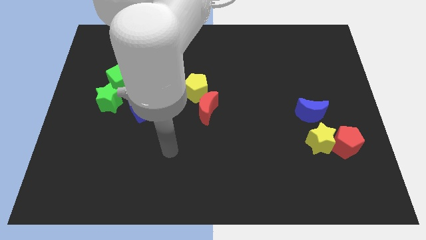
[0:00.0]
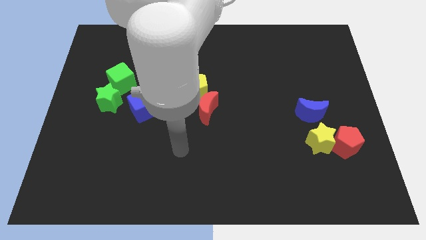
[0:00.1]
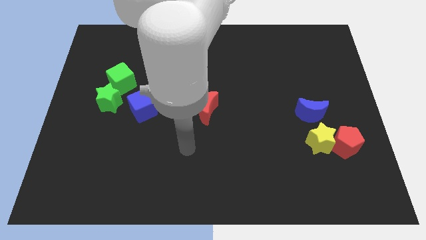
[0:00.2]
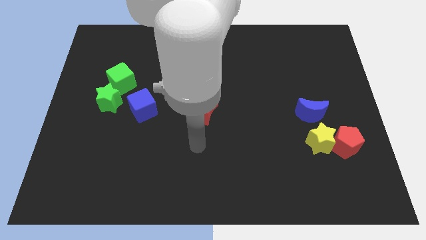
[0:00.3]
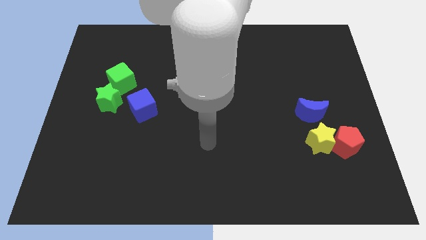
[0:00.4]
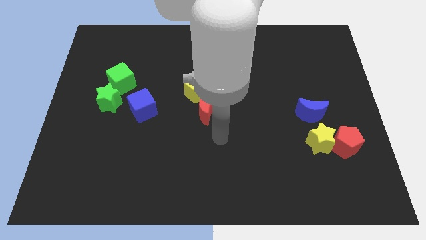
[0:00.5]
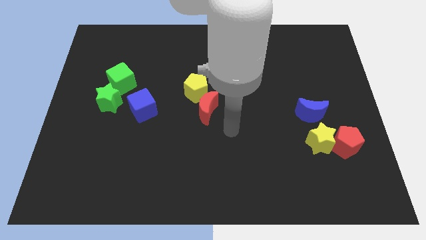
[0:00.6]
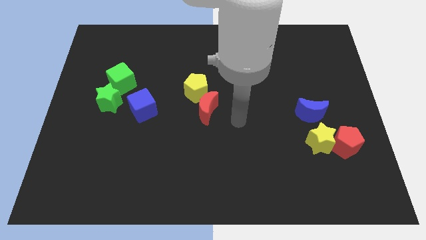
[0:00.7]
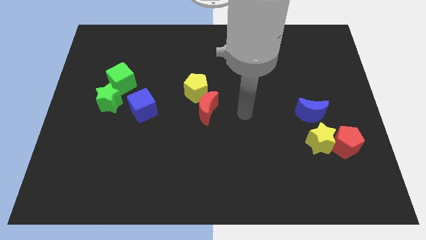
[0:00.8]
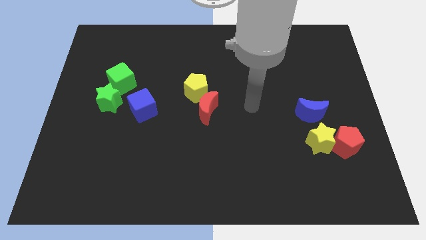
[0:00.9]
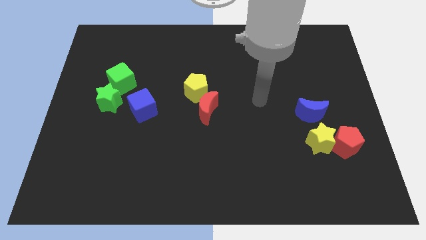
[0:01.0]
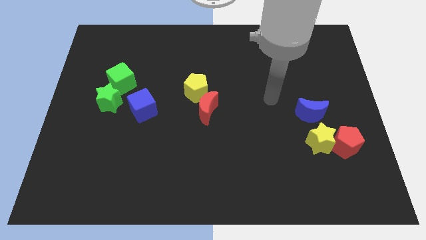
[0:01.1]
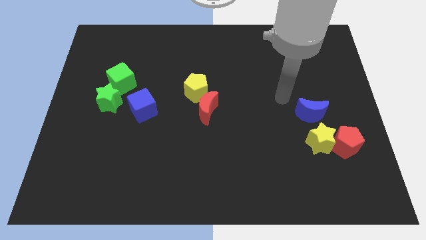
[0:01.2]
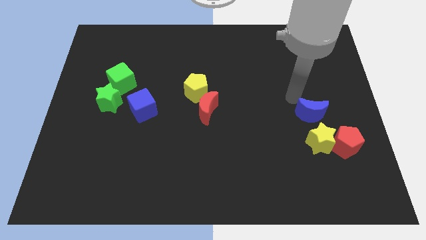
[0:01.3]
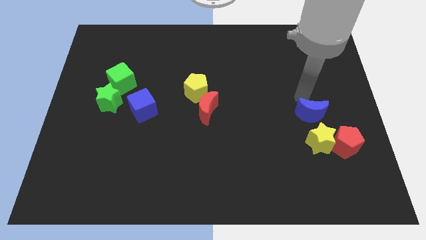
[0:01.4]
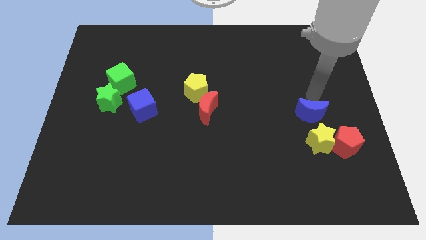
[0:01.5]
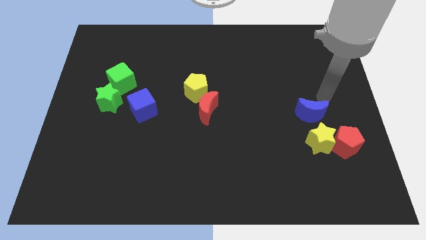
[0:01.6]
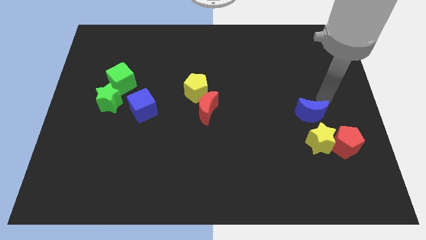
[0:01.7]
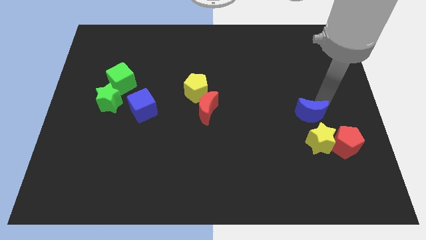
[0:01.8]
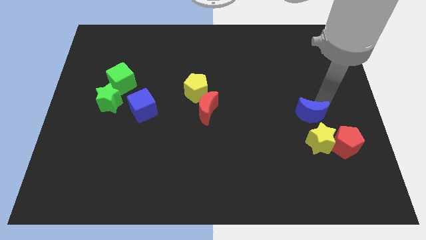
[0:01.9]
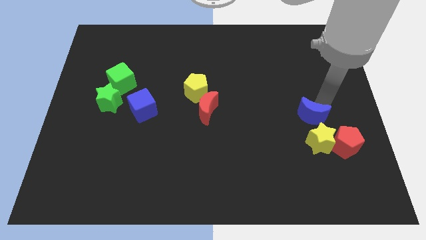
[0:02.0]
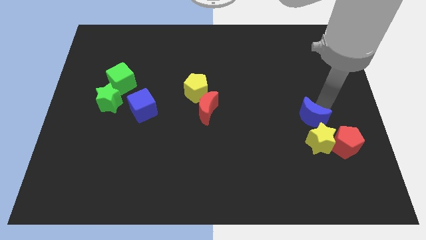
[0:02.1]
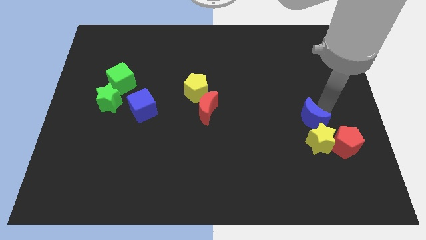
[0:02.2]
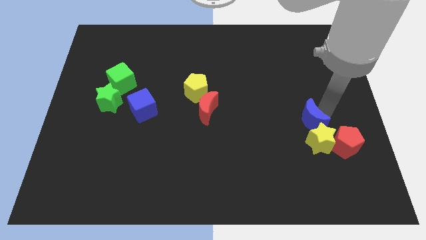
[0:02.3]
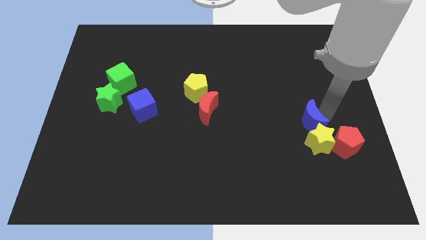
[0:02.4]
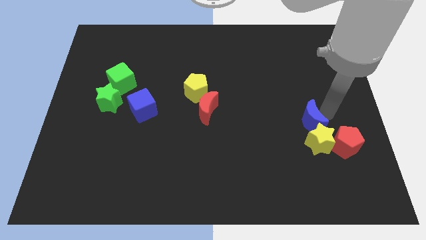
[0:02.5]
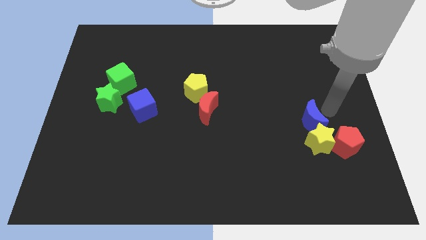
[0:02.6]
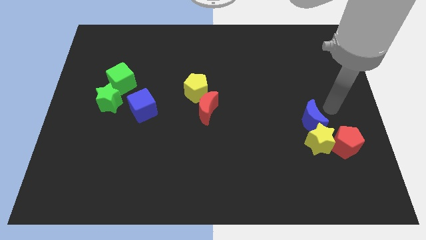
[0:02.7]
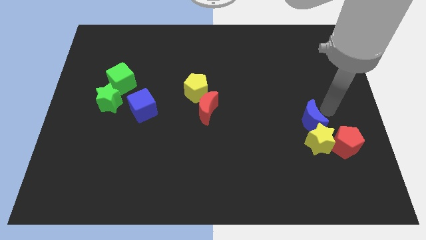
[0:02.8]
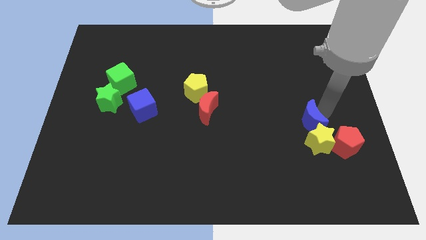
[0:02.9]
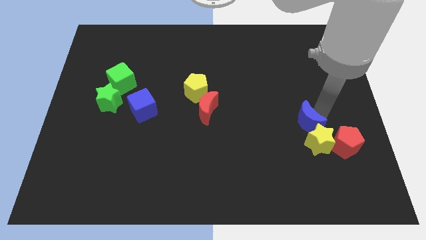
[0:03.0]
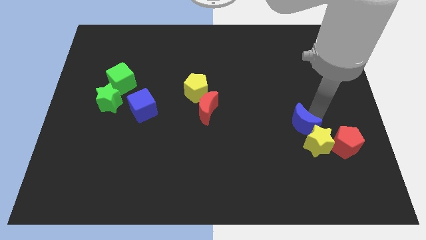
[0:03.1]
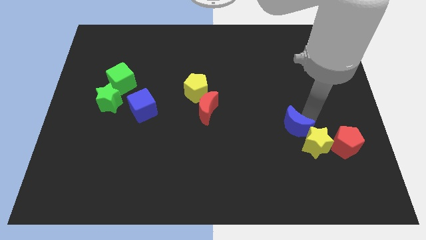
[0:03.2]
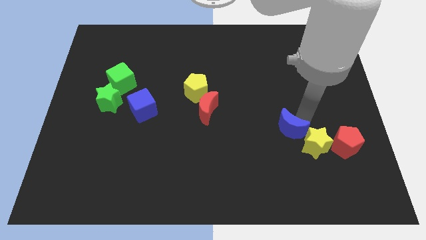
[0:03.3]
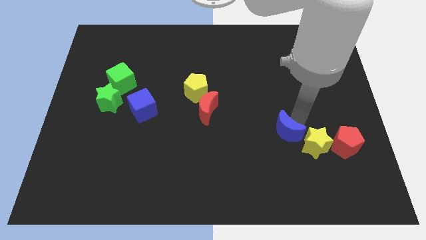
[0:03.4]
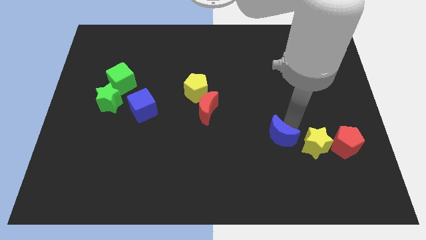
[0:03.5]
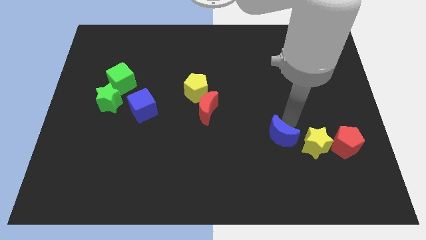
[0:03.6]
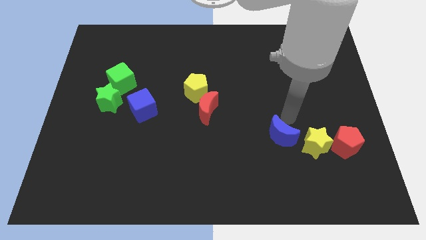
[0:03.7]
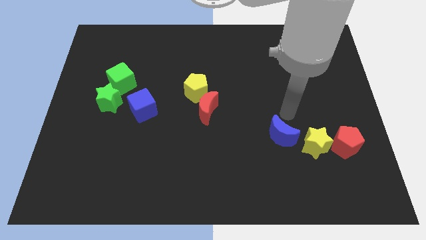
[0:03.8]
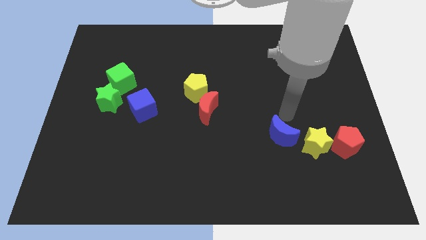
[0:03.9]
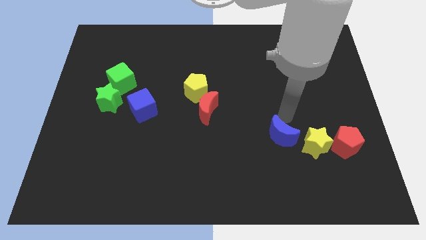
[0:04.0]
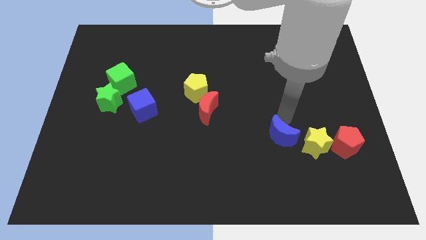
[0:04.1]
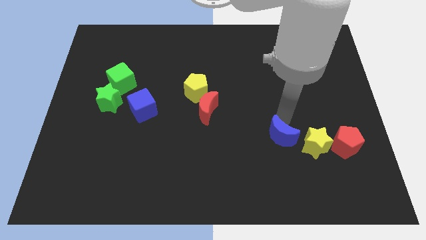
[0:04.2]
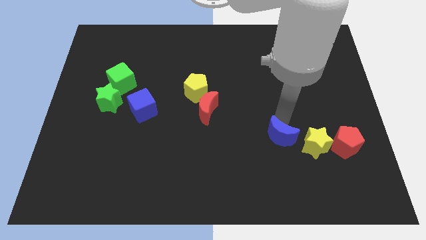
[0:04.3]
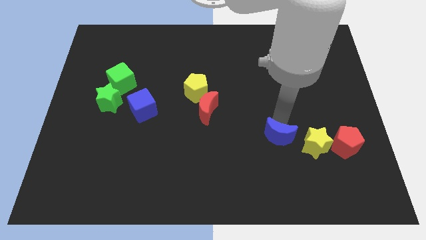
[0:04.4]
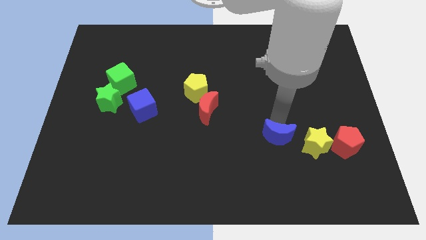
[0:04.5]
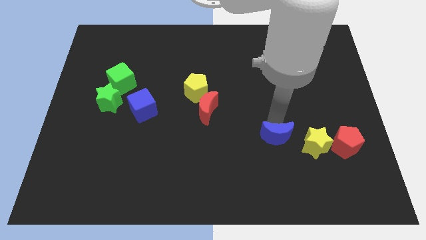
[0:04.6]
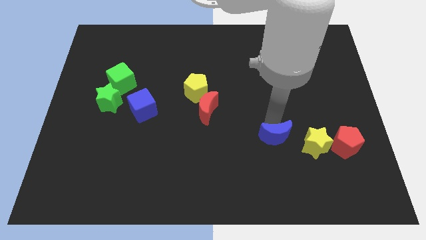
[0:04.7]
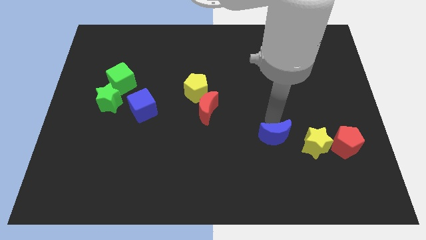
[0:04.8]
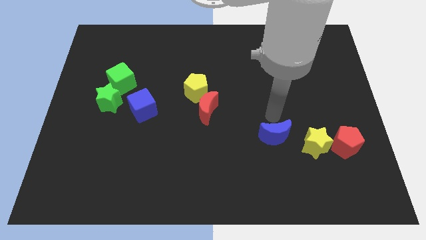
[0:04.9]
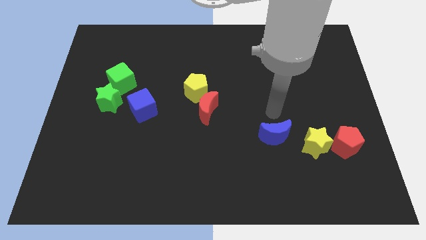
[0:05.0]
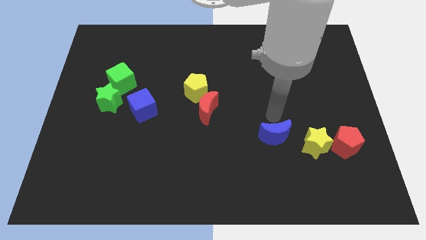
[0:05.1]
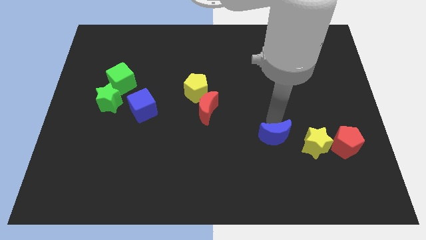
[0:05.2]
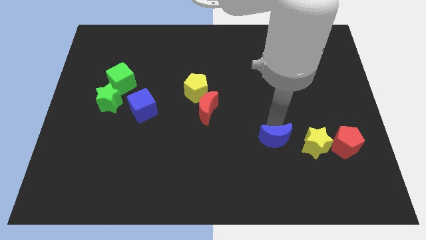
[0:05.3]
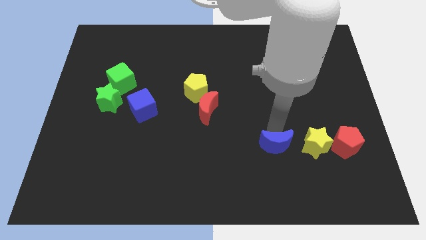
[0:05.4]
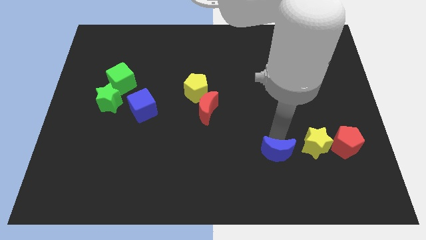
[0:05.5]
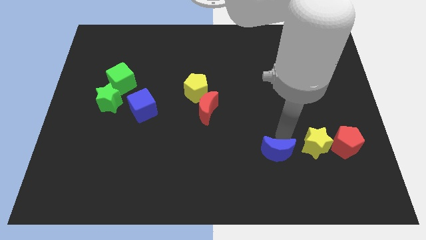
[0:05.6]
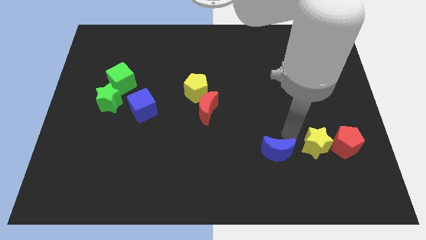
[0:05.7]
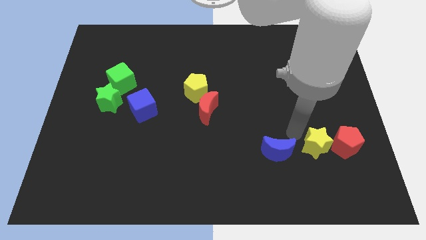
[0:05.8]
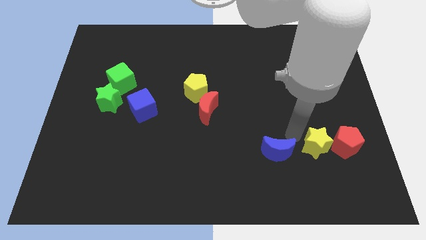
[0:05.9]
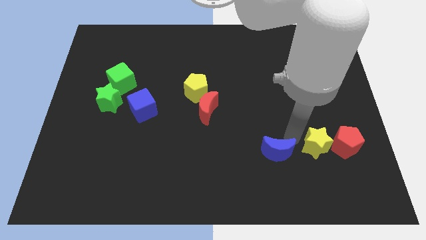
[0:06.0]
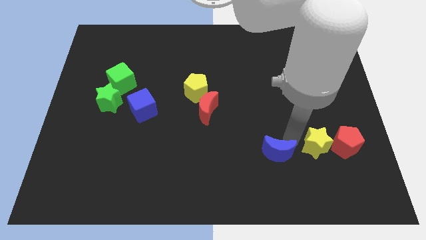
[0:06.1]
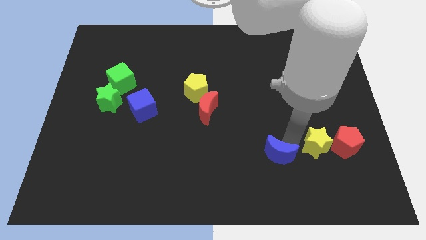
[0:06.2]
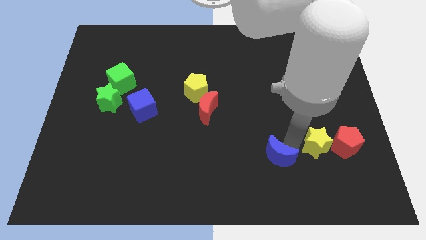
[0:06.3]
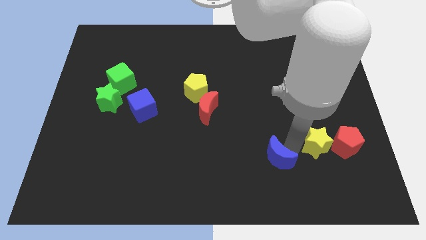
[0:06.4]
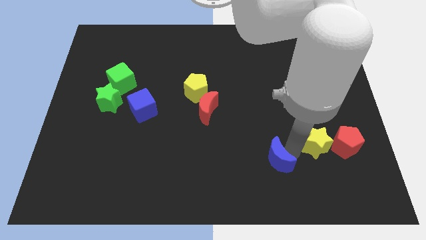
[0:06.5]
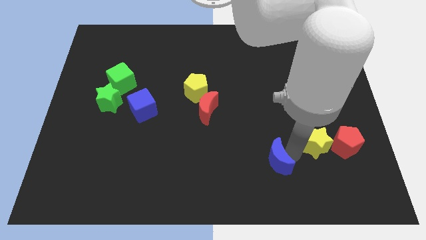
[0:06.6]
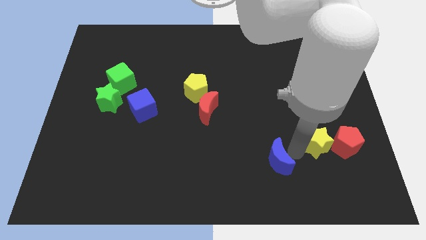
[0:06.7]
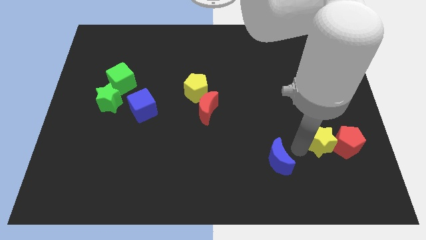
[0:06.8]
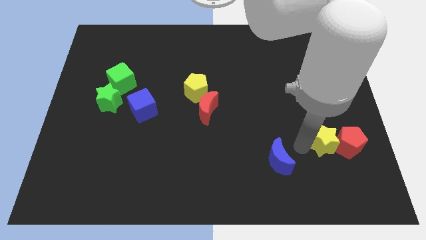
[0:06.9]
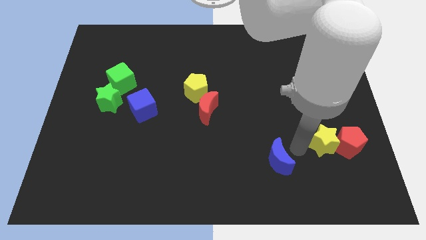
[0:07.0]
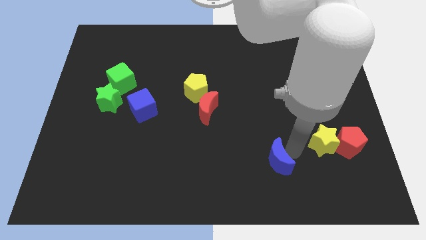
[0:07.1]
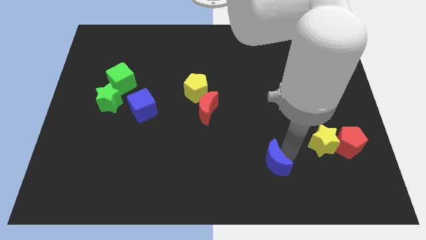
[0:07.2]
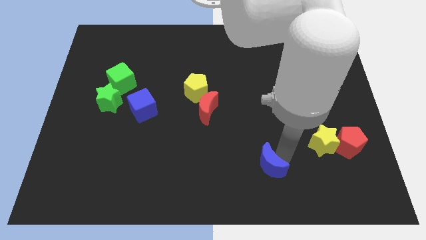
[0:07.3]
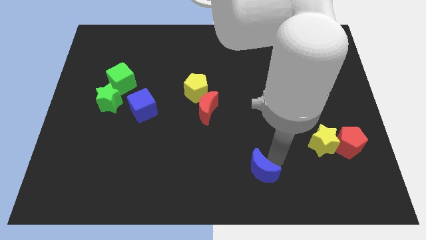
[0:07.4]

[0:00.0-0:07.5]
put the blue moon to the bottom side
